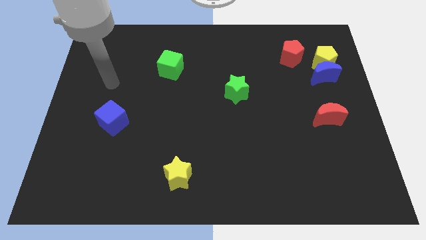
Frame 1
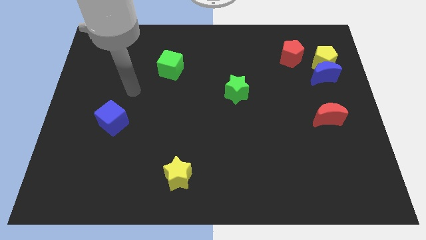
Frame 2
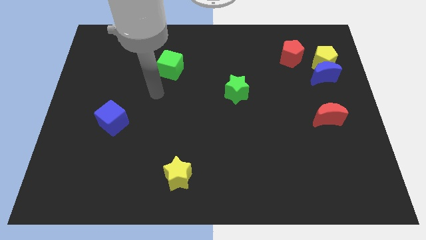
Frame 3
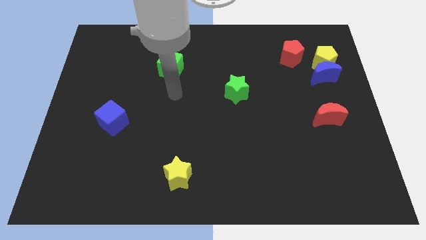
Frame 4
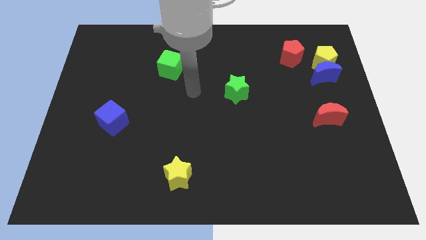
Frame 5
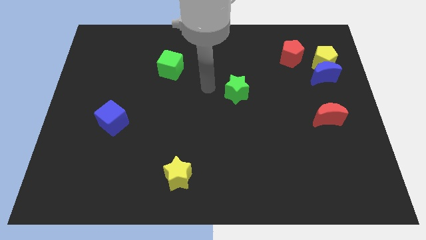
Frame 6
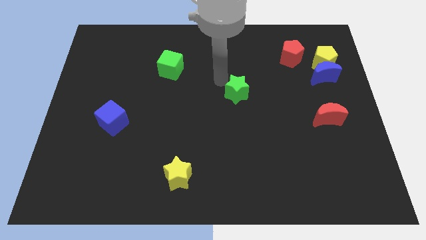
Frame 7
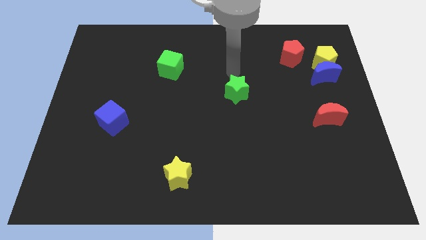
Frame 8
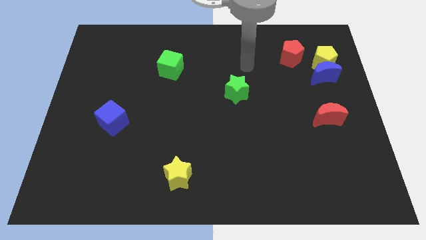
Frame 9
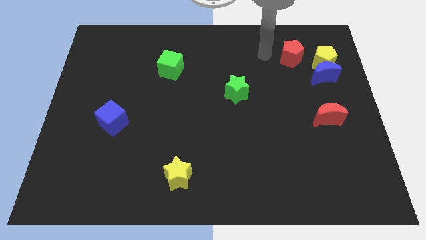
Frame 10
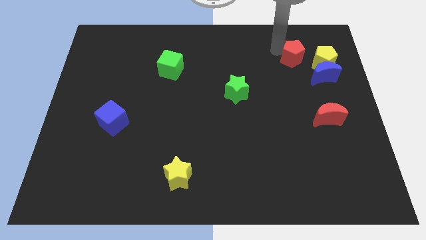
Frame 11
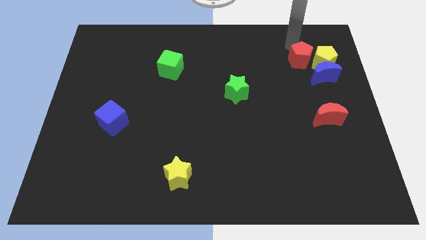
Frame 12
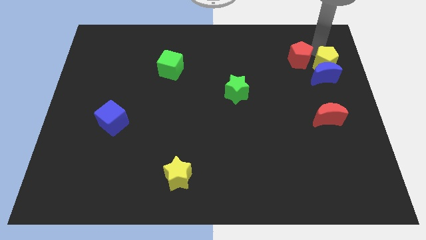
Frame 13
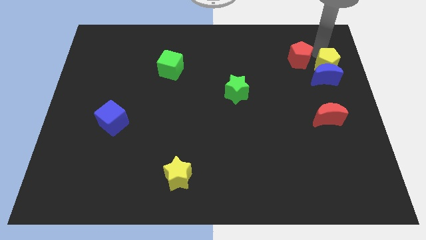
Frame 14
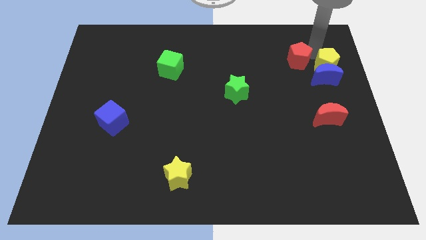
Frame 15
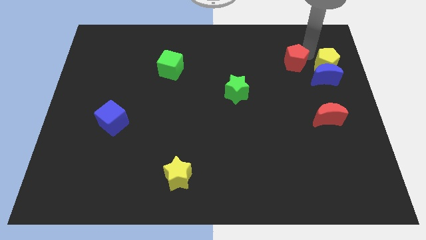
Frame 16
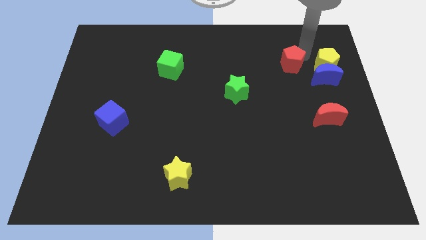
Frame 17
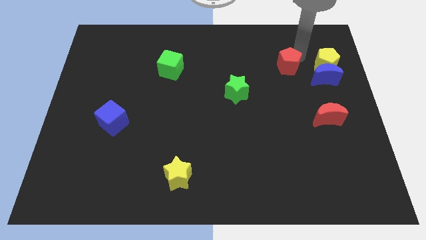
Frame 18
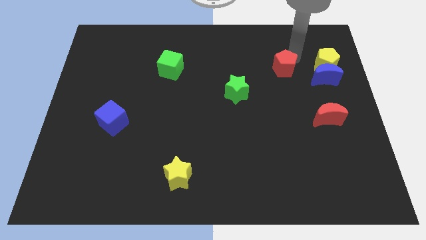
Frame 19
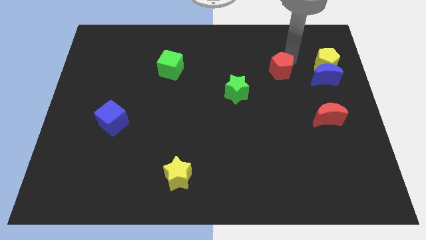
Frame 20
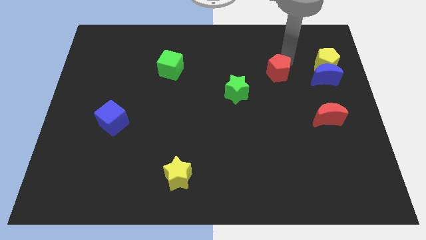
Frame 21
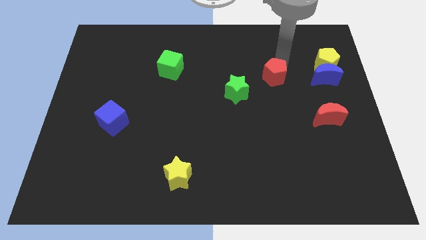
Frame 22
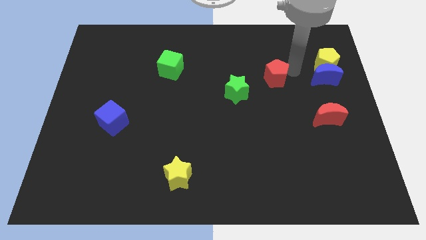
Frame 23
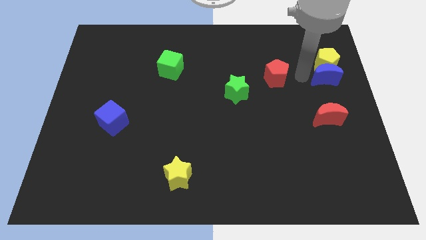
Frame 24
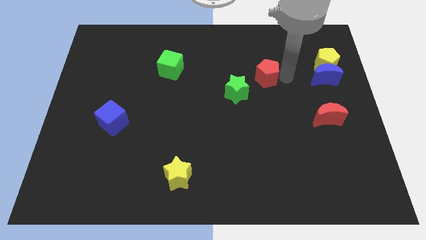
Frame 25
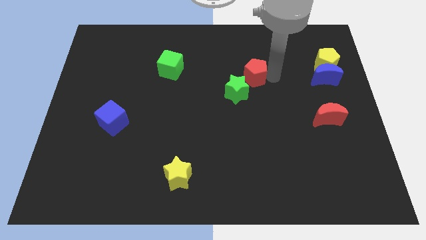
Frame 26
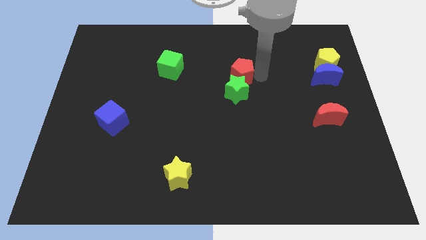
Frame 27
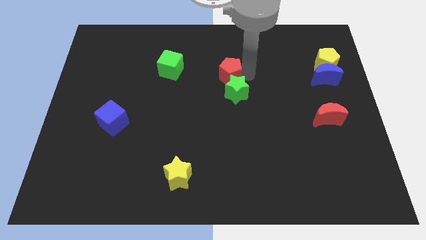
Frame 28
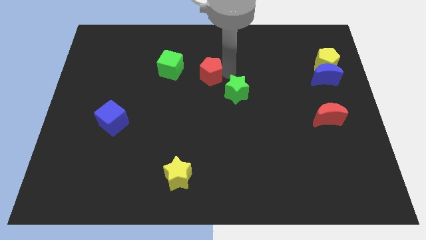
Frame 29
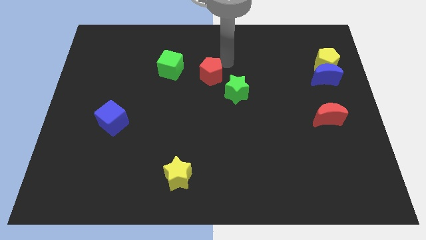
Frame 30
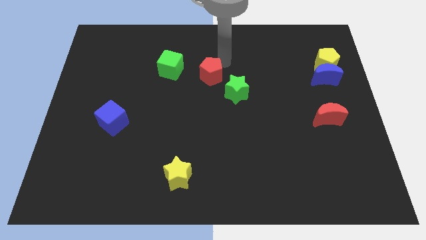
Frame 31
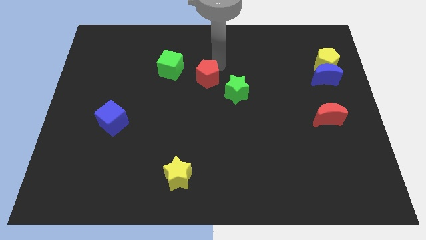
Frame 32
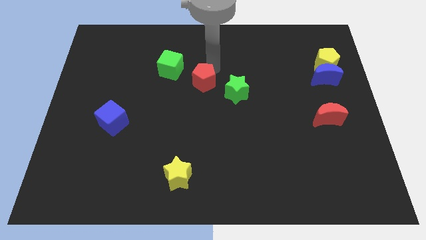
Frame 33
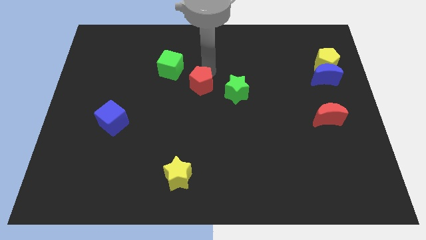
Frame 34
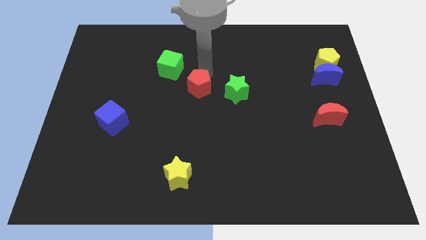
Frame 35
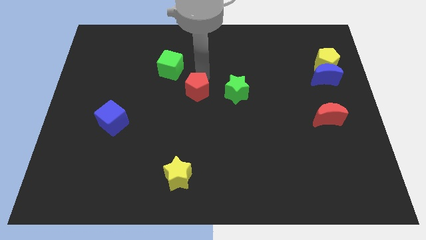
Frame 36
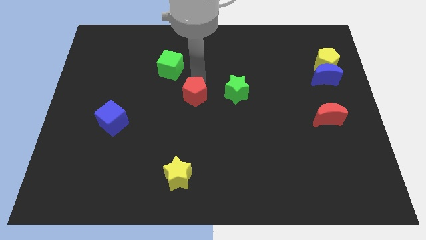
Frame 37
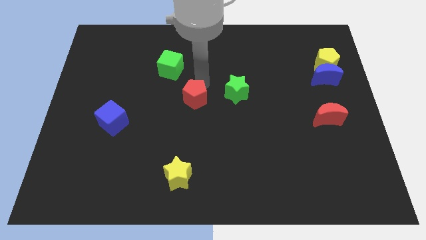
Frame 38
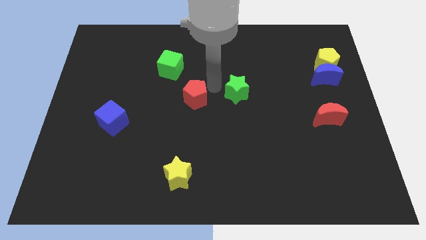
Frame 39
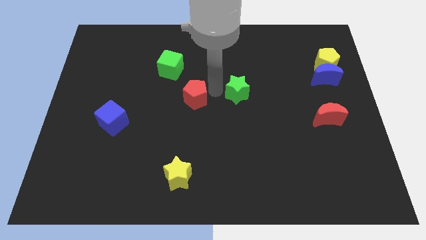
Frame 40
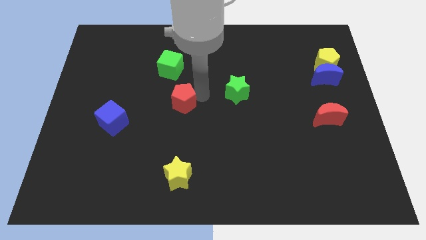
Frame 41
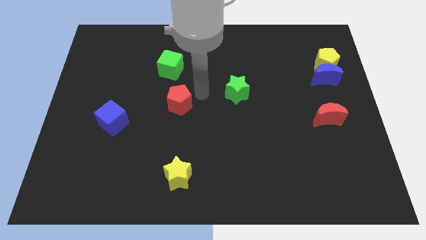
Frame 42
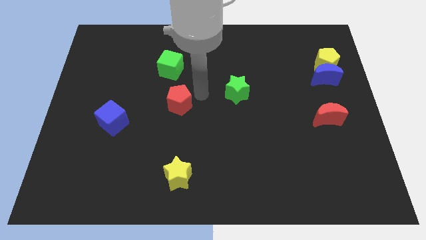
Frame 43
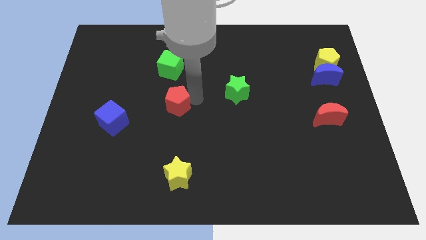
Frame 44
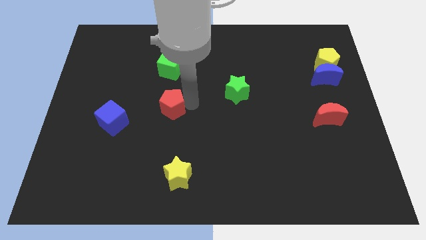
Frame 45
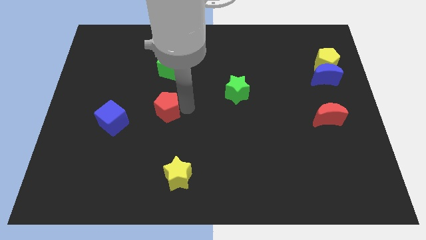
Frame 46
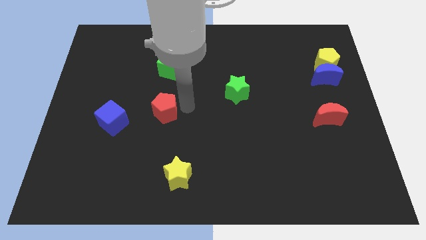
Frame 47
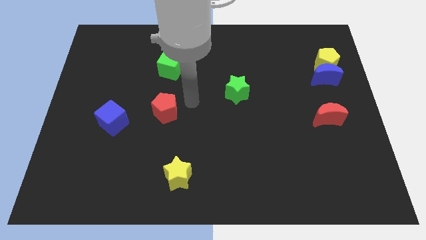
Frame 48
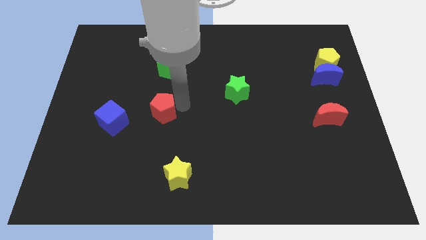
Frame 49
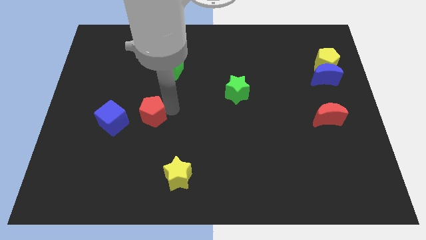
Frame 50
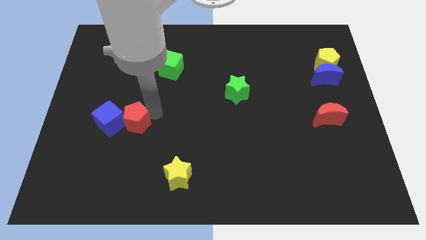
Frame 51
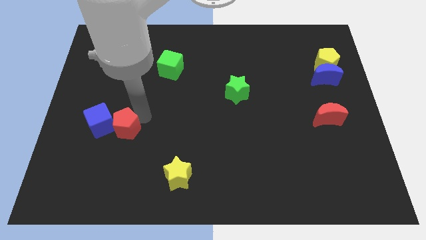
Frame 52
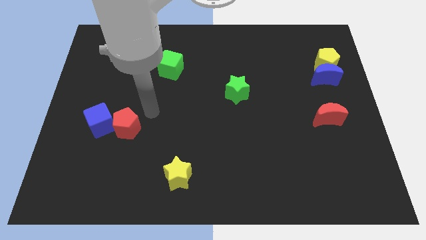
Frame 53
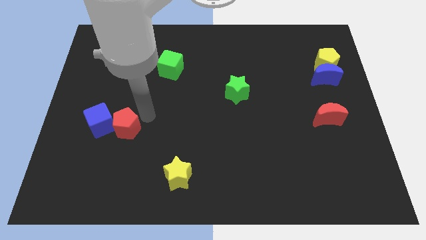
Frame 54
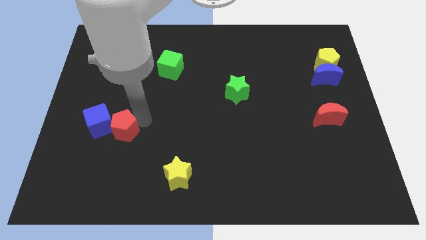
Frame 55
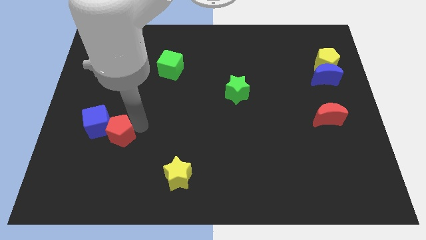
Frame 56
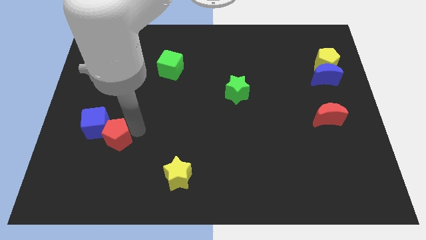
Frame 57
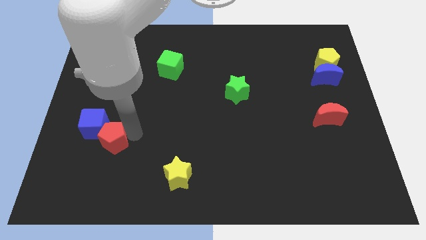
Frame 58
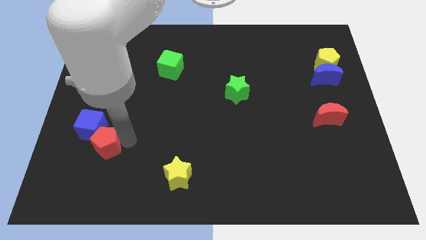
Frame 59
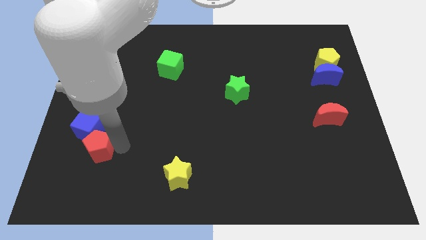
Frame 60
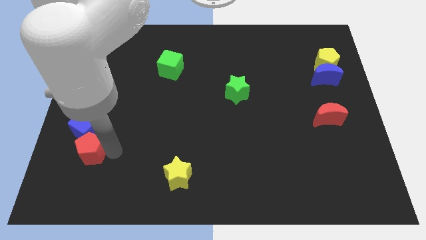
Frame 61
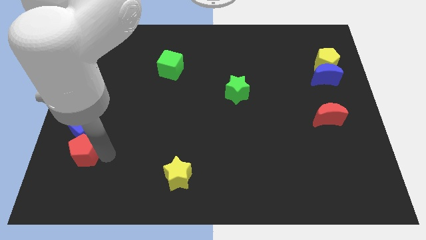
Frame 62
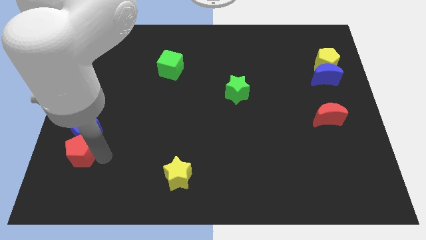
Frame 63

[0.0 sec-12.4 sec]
push the red pentagon diagonally down and to the left of the blue cube

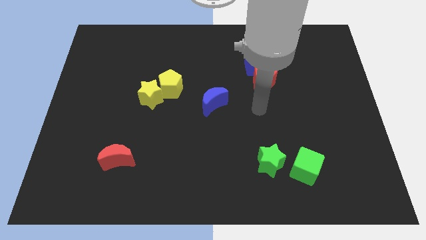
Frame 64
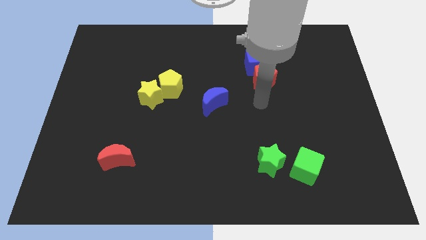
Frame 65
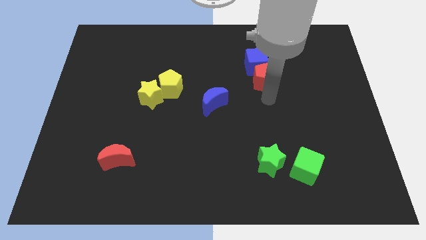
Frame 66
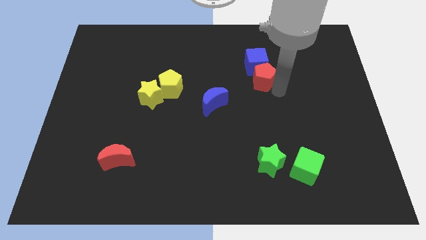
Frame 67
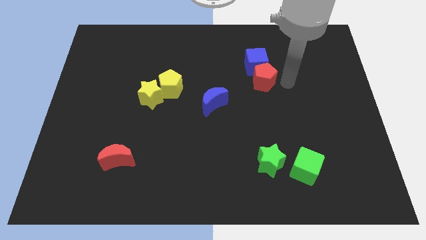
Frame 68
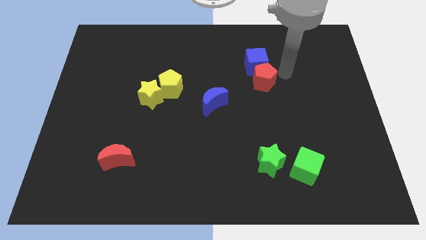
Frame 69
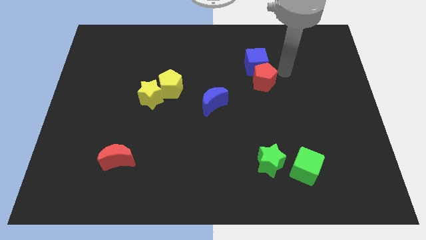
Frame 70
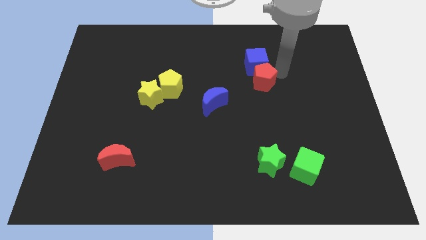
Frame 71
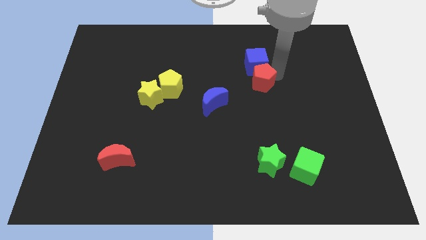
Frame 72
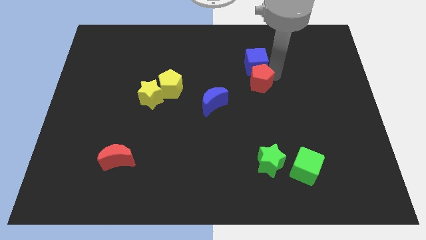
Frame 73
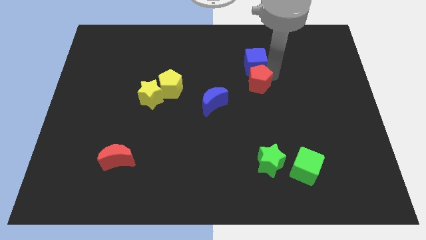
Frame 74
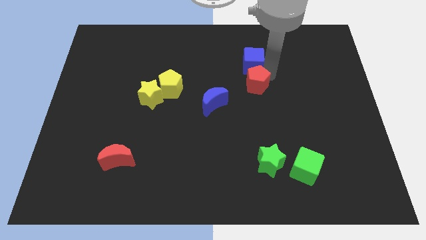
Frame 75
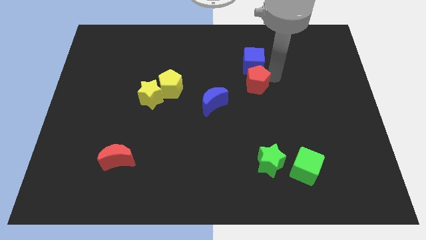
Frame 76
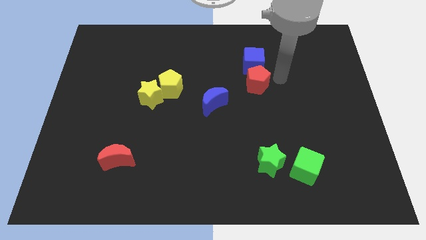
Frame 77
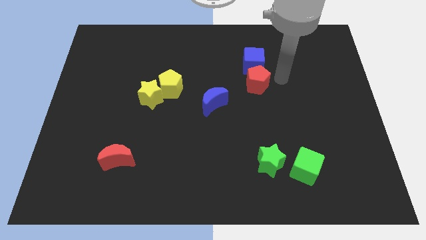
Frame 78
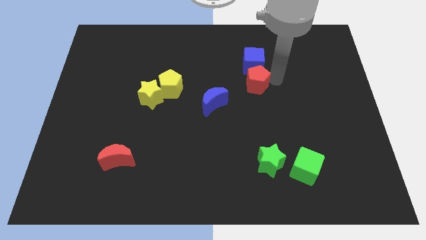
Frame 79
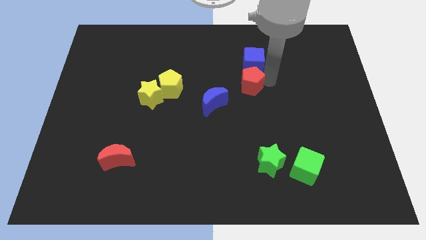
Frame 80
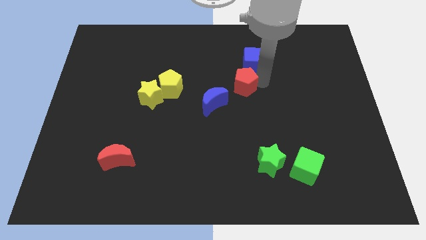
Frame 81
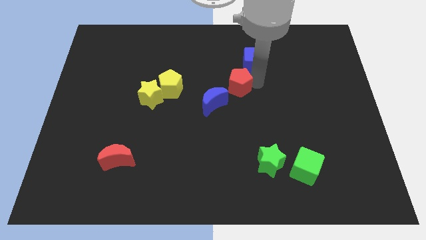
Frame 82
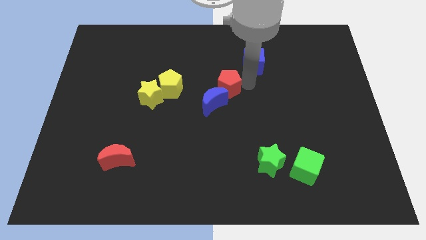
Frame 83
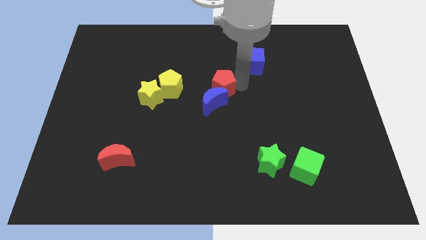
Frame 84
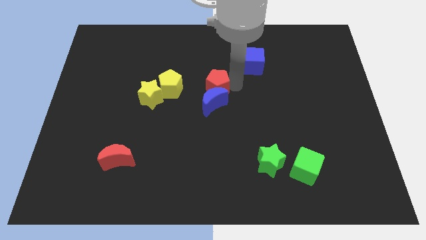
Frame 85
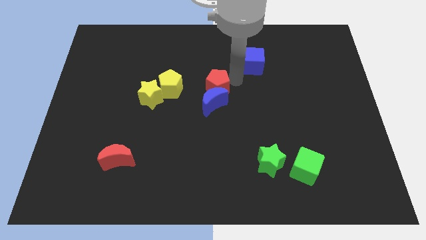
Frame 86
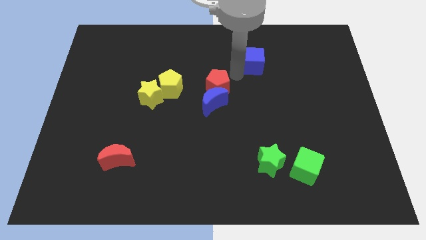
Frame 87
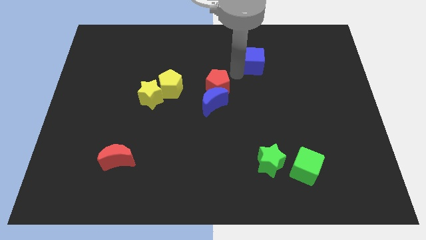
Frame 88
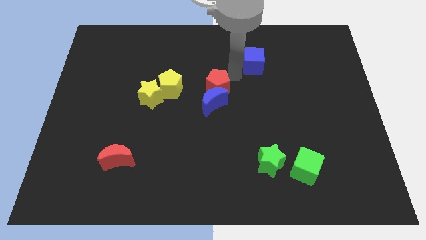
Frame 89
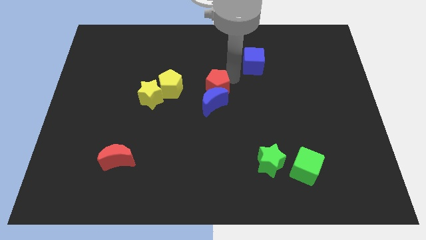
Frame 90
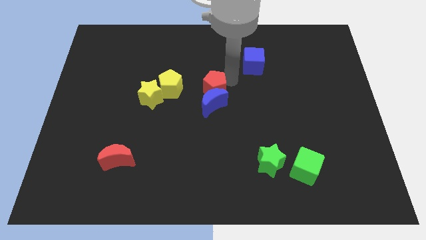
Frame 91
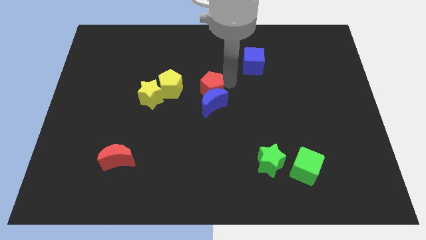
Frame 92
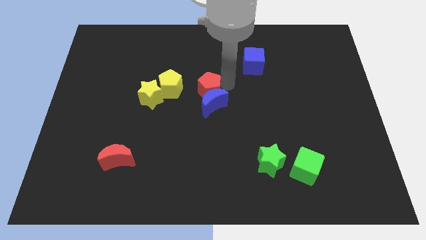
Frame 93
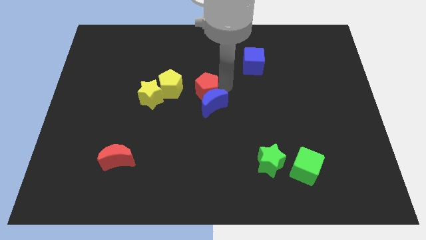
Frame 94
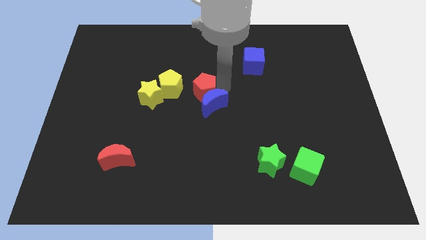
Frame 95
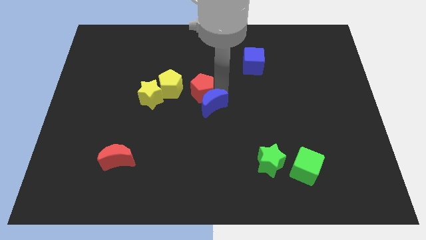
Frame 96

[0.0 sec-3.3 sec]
slide the red pentagon to the bottom right of the yellow pentagon
